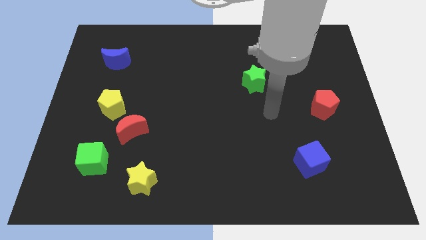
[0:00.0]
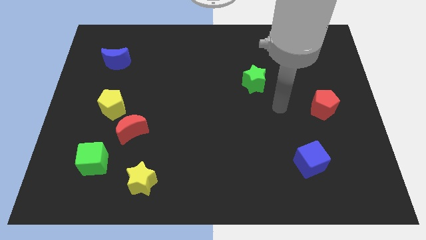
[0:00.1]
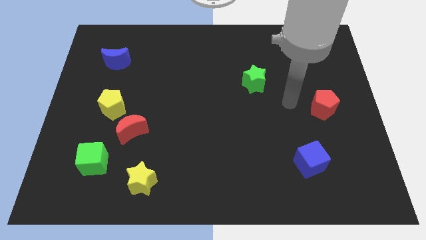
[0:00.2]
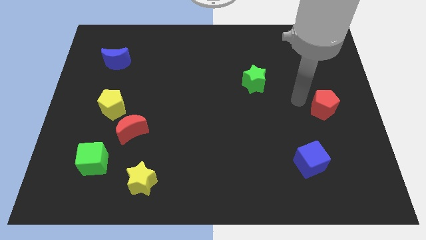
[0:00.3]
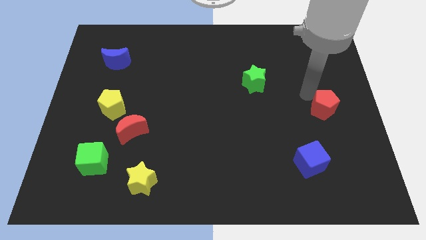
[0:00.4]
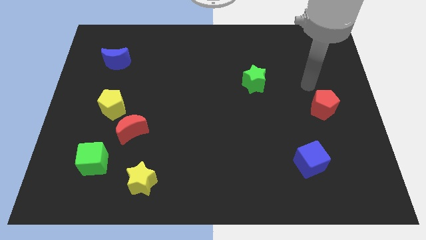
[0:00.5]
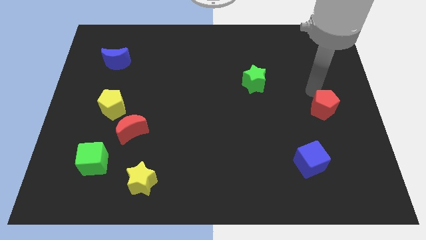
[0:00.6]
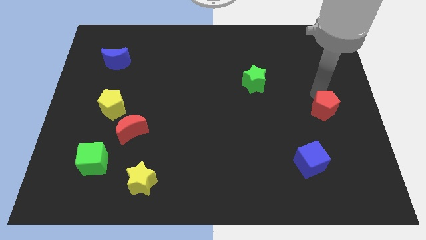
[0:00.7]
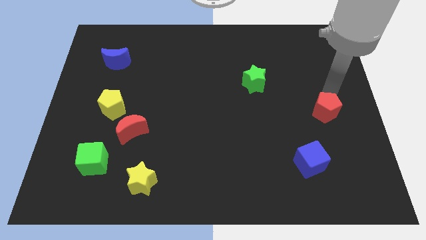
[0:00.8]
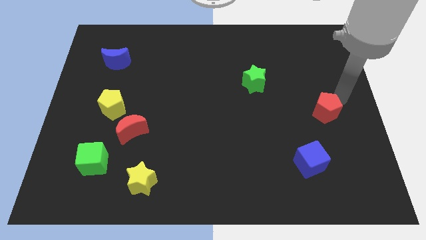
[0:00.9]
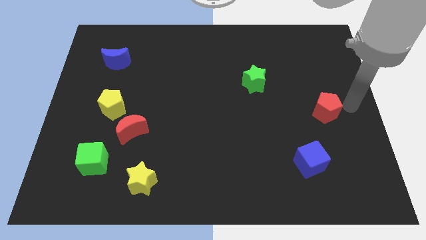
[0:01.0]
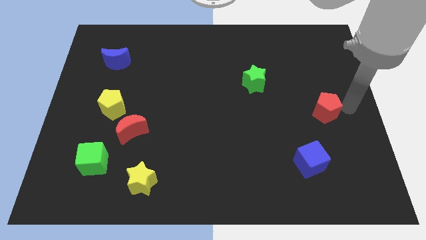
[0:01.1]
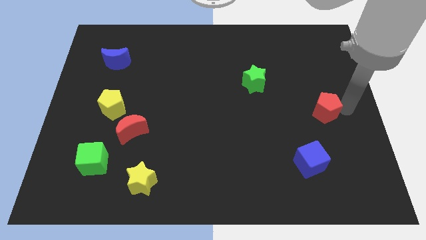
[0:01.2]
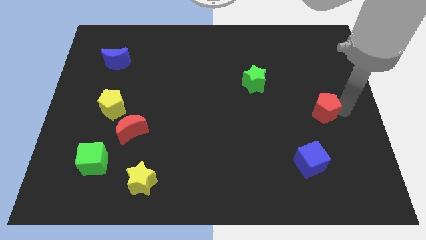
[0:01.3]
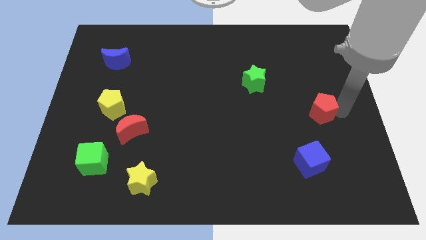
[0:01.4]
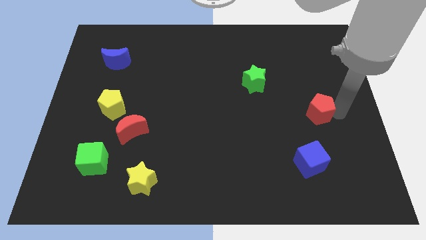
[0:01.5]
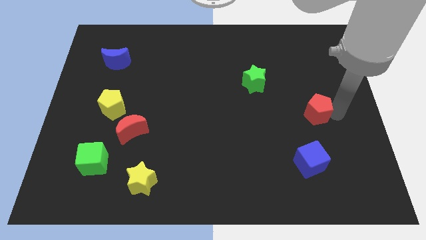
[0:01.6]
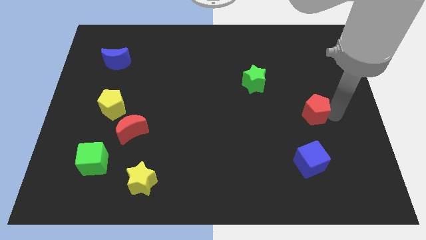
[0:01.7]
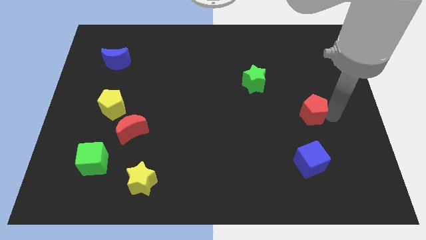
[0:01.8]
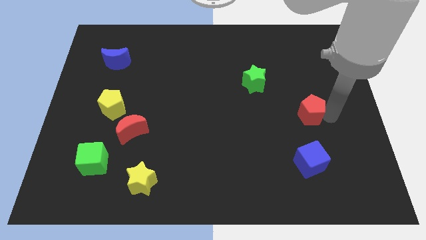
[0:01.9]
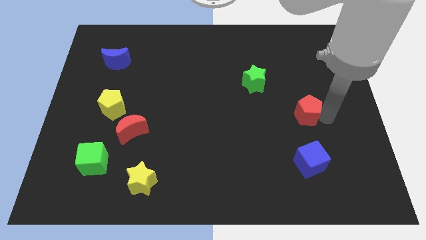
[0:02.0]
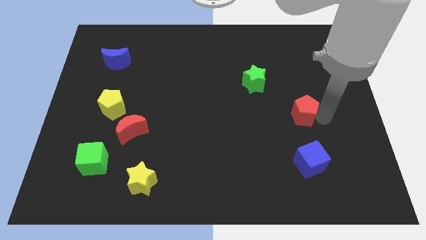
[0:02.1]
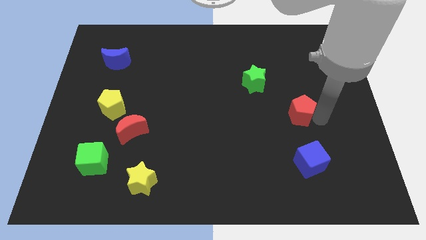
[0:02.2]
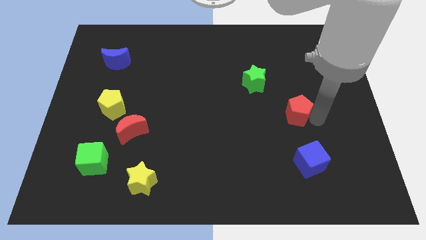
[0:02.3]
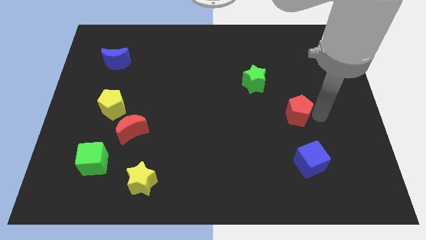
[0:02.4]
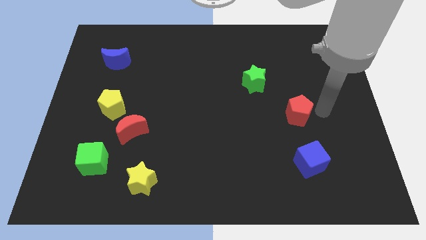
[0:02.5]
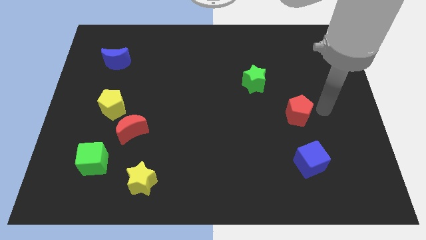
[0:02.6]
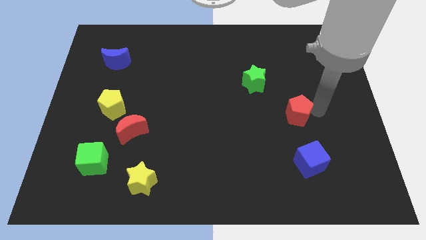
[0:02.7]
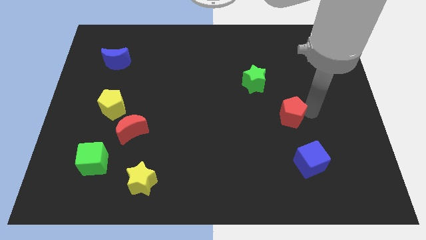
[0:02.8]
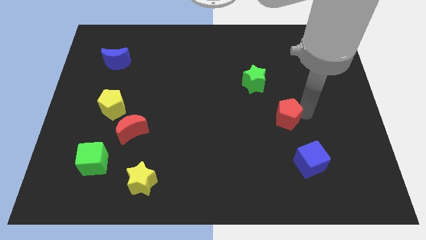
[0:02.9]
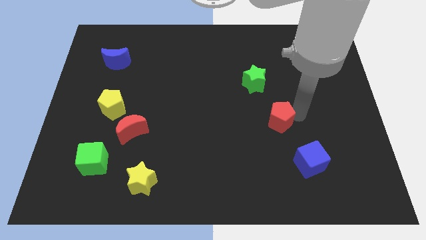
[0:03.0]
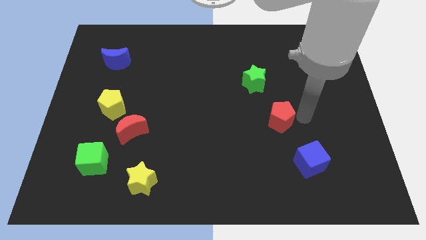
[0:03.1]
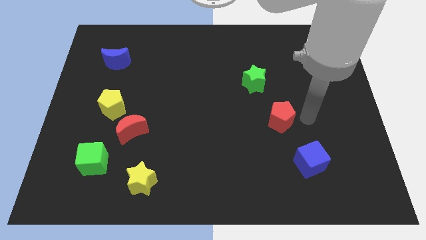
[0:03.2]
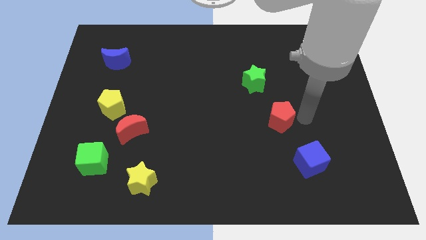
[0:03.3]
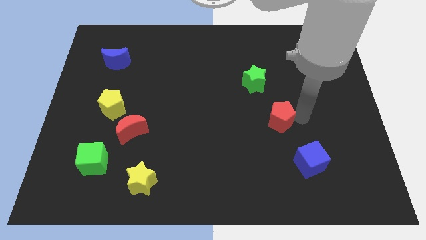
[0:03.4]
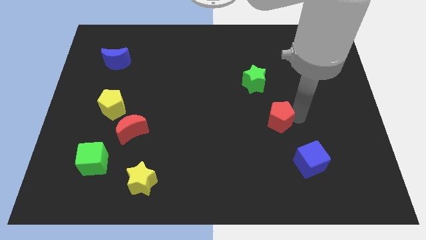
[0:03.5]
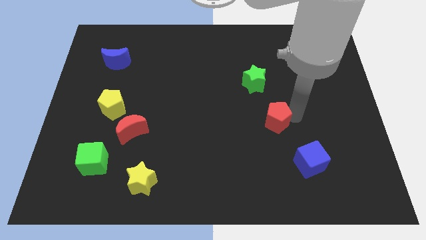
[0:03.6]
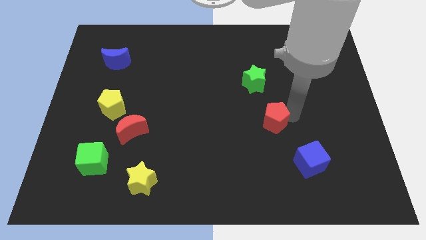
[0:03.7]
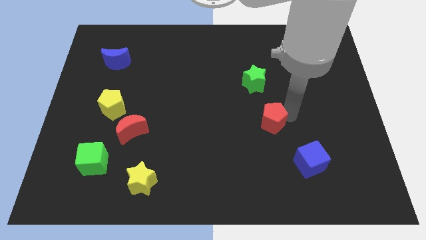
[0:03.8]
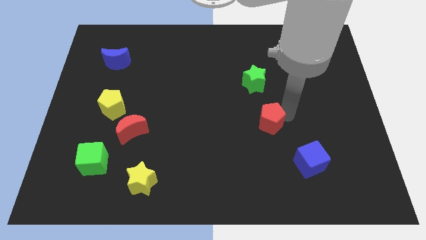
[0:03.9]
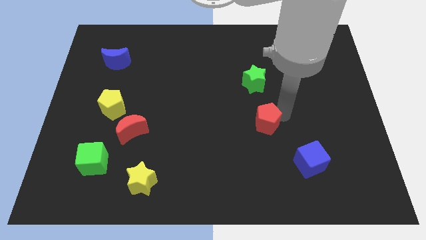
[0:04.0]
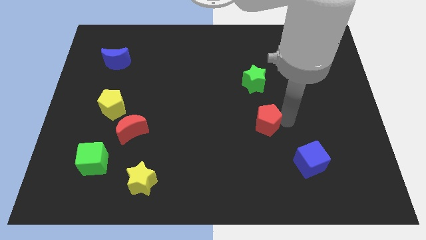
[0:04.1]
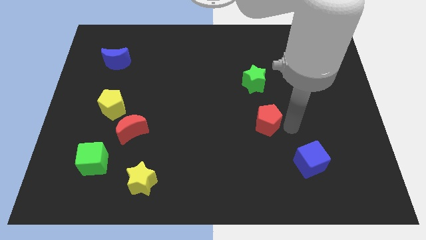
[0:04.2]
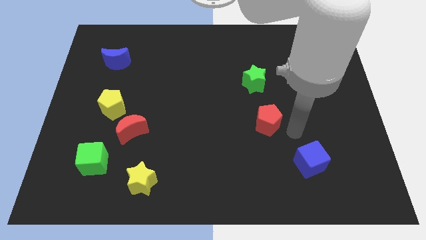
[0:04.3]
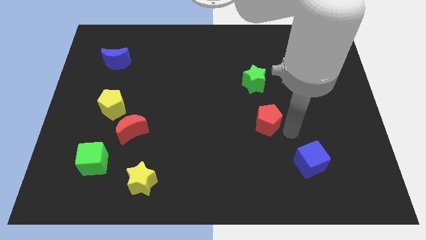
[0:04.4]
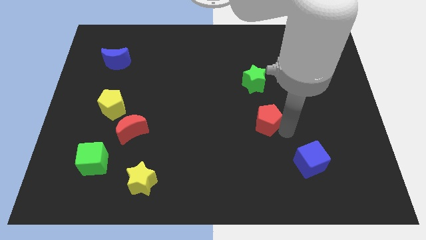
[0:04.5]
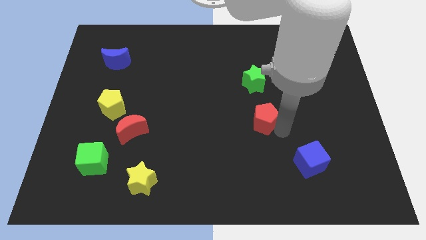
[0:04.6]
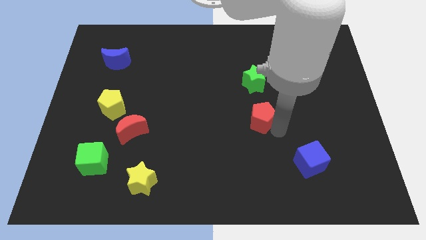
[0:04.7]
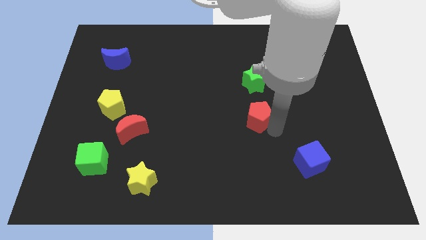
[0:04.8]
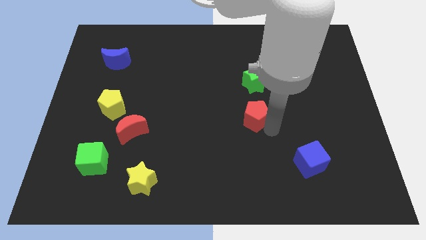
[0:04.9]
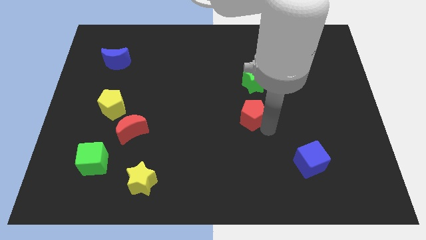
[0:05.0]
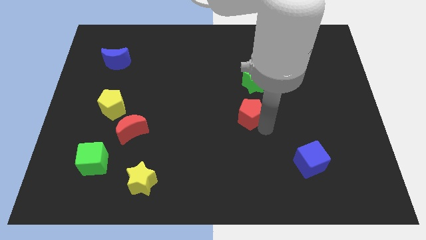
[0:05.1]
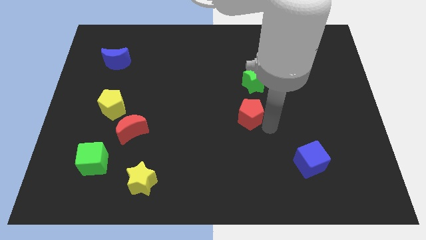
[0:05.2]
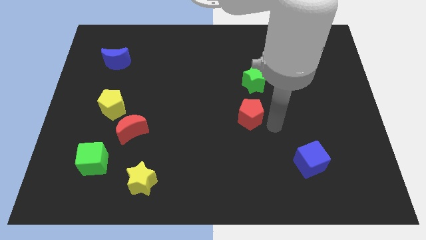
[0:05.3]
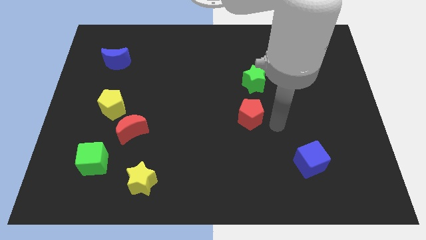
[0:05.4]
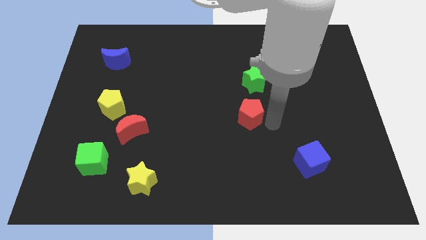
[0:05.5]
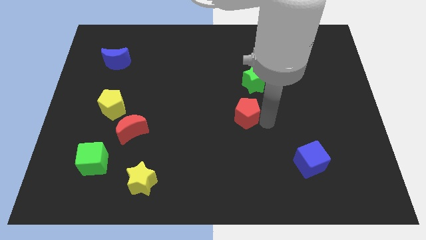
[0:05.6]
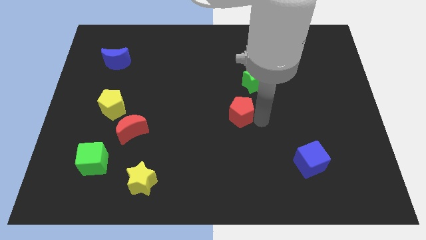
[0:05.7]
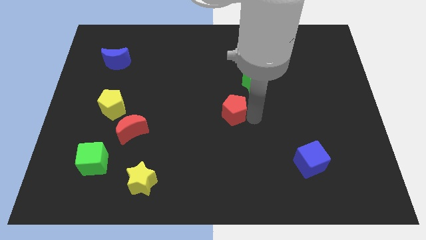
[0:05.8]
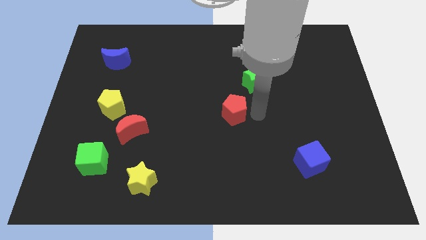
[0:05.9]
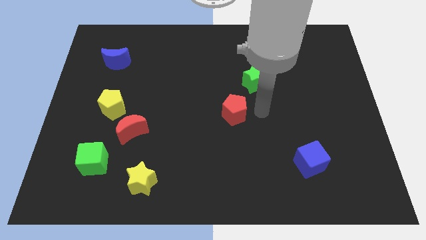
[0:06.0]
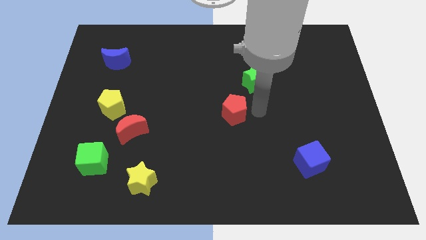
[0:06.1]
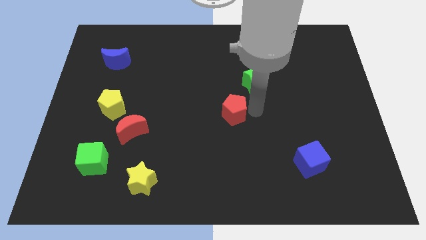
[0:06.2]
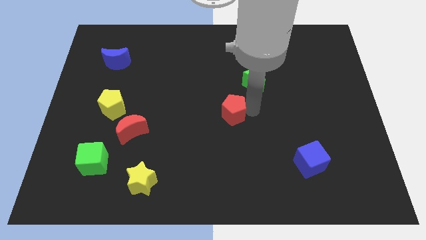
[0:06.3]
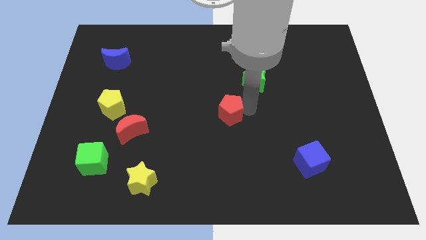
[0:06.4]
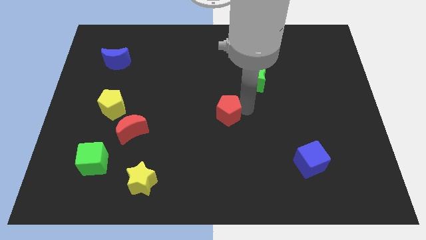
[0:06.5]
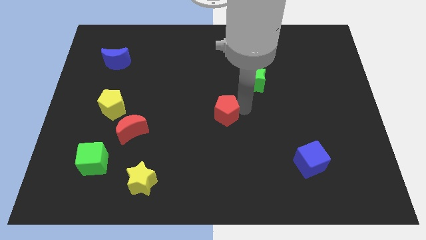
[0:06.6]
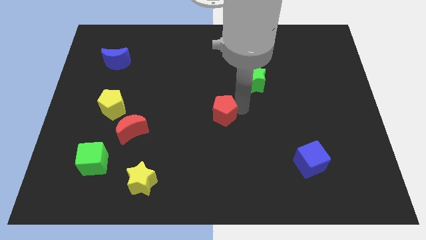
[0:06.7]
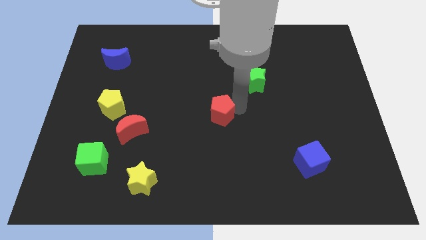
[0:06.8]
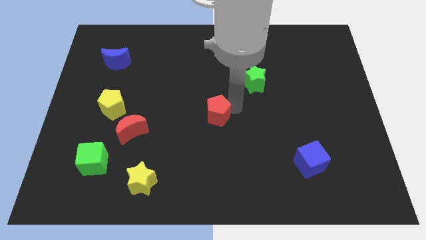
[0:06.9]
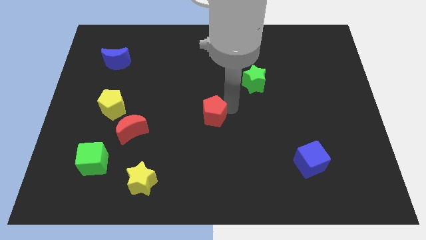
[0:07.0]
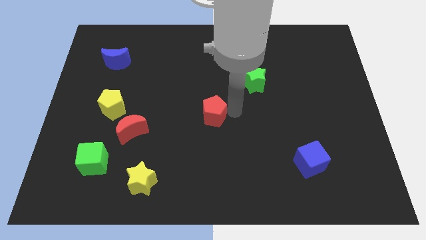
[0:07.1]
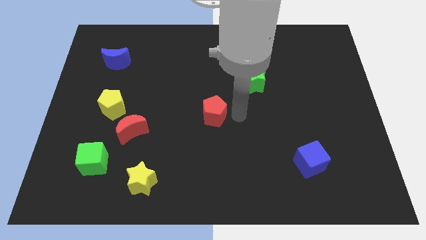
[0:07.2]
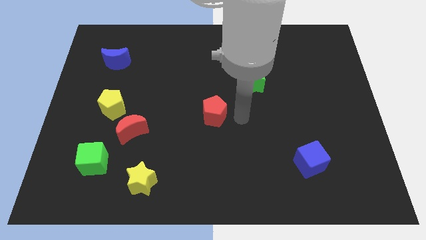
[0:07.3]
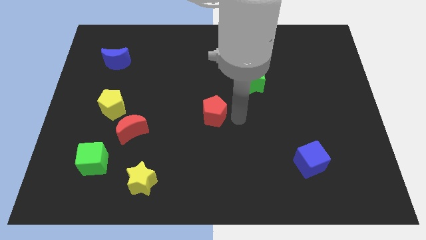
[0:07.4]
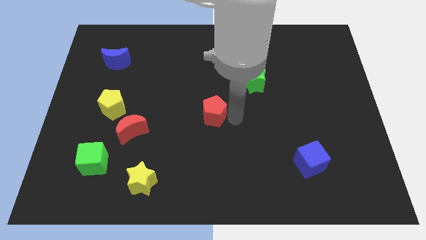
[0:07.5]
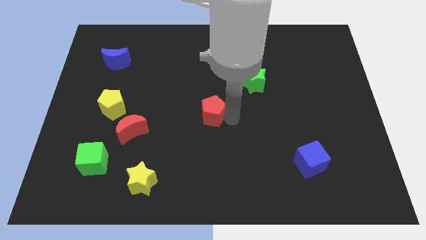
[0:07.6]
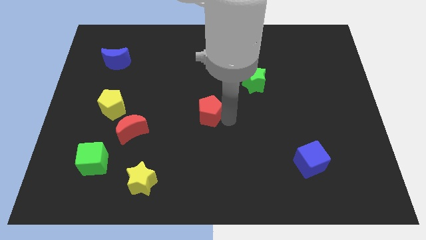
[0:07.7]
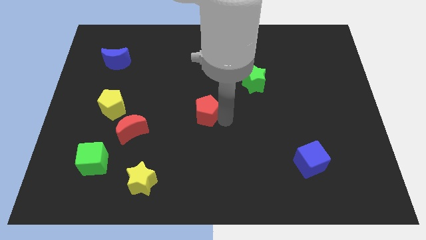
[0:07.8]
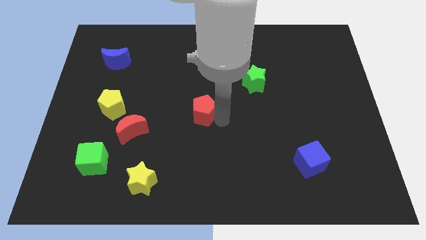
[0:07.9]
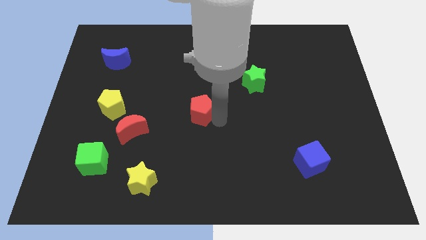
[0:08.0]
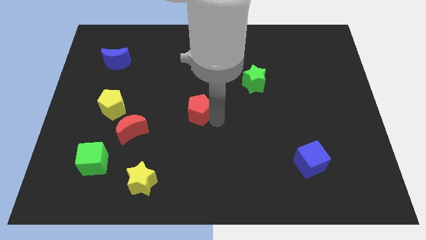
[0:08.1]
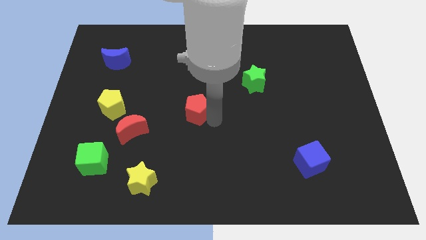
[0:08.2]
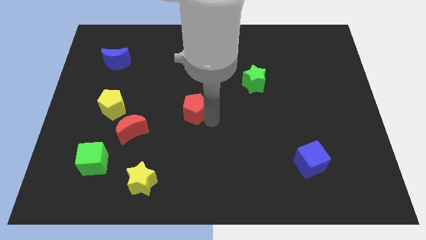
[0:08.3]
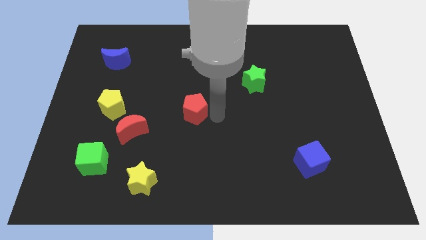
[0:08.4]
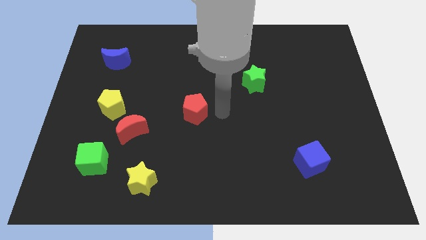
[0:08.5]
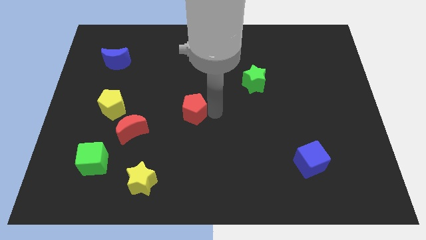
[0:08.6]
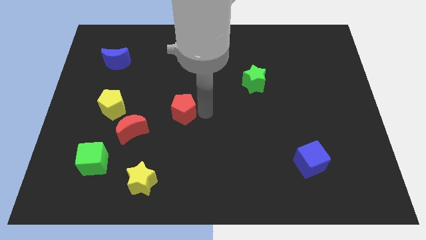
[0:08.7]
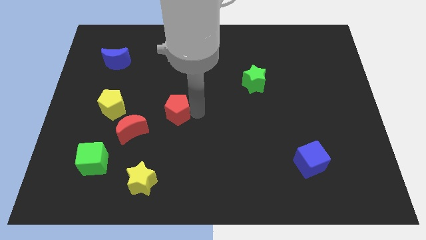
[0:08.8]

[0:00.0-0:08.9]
put the red pentagon diagonally up and to the right of the red moon
